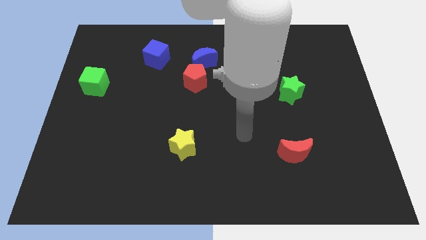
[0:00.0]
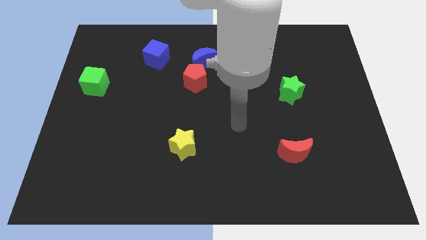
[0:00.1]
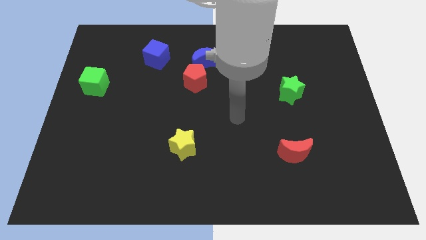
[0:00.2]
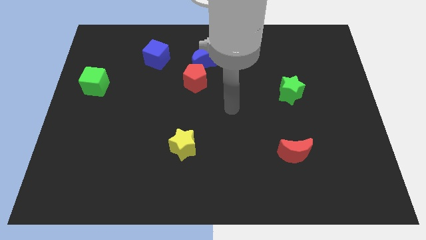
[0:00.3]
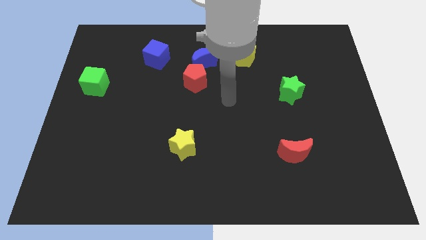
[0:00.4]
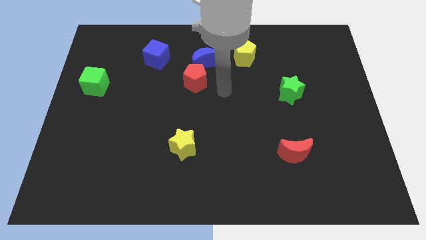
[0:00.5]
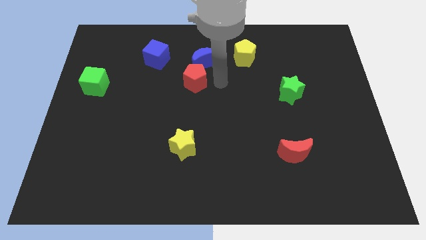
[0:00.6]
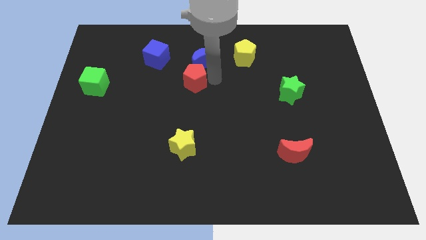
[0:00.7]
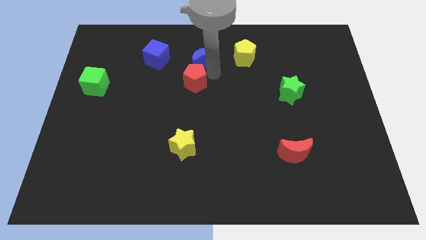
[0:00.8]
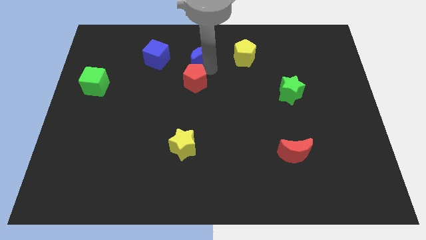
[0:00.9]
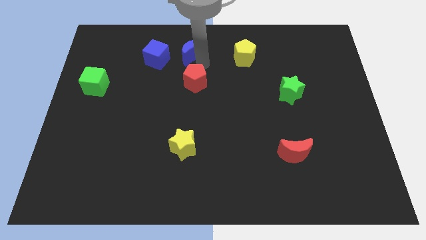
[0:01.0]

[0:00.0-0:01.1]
move the red pentagon away from the blue moon

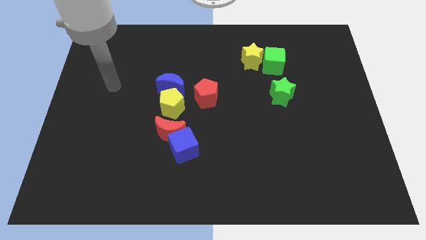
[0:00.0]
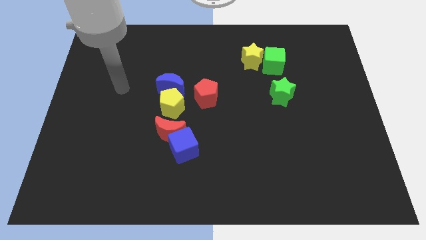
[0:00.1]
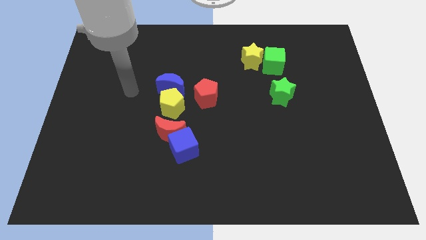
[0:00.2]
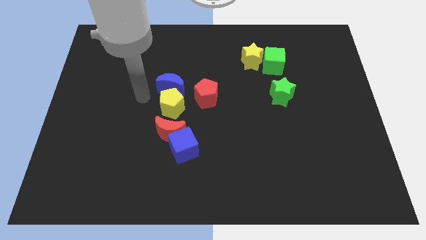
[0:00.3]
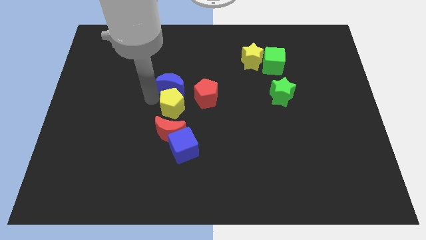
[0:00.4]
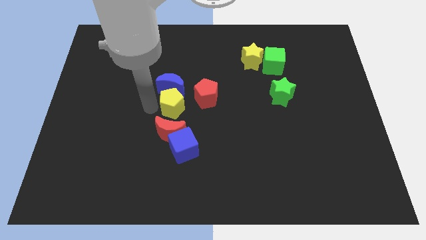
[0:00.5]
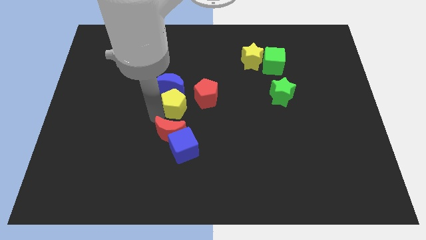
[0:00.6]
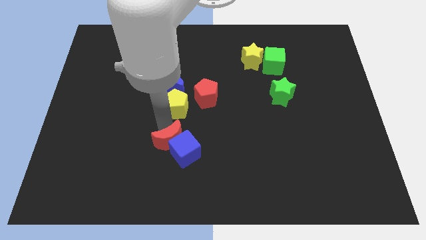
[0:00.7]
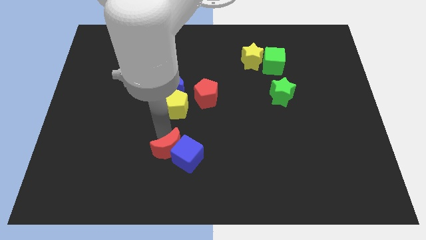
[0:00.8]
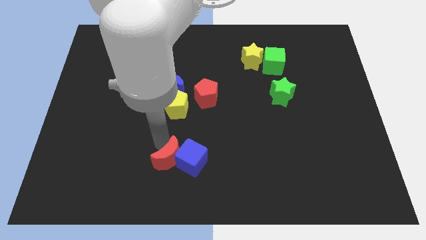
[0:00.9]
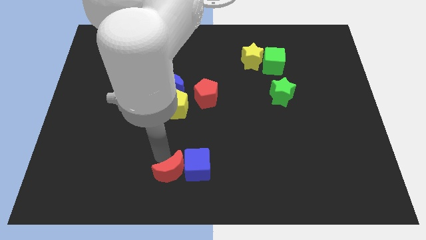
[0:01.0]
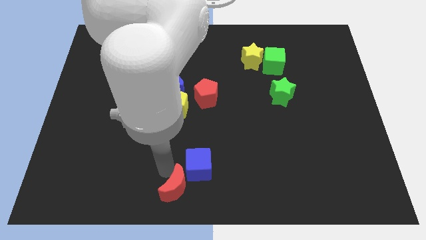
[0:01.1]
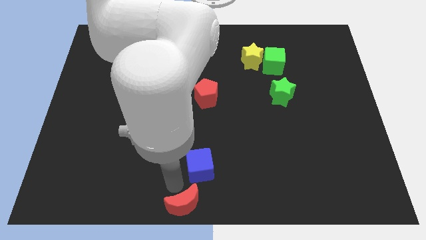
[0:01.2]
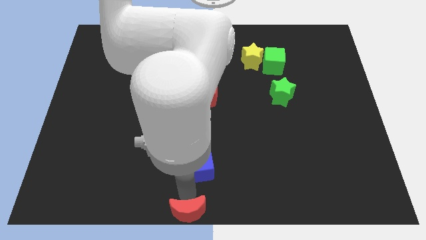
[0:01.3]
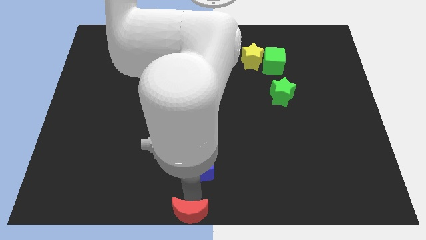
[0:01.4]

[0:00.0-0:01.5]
pull the blue cube apart from the red moon

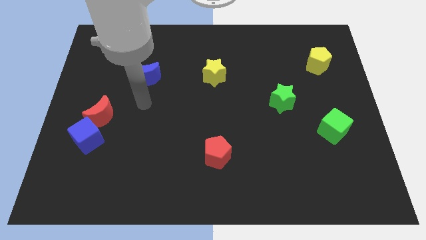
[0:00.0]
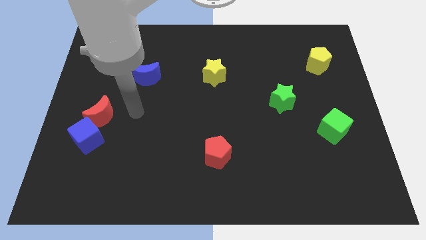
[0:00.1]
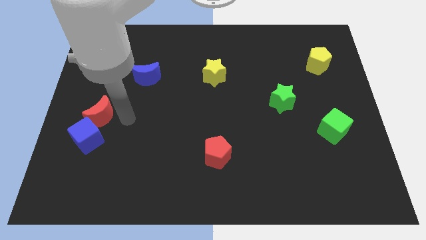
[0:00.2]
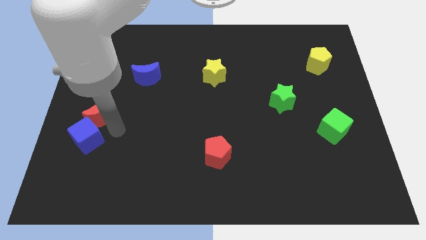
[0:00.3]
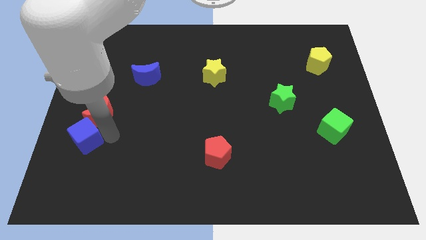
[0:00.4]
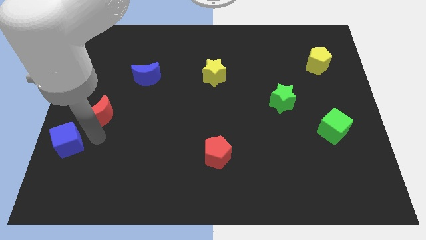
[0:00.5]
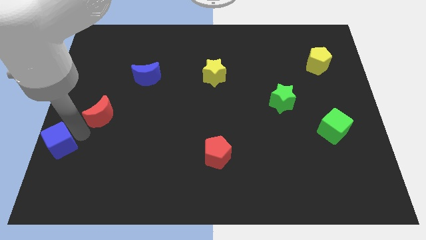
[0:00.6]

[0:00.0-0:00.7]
move the red moon away from the blue cube

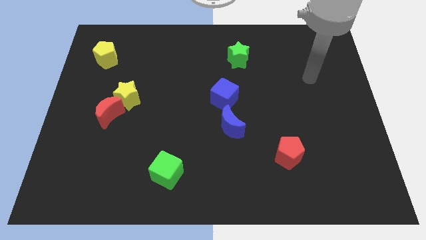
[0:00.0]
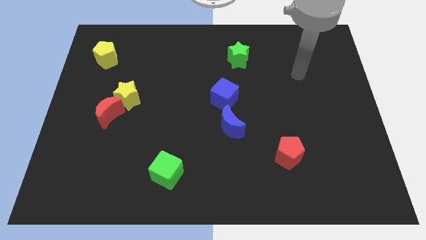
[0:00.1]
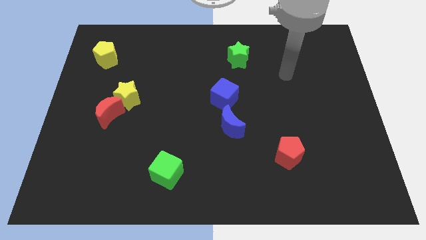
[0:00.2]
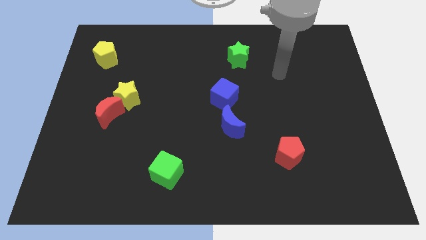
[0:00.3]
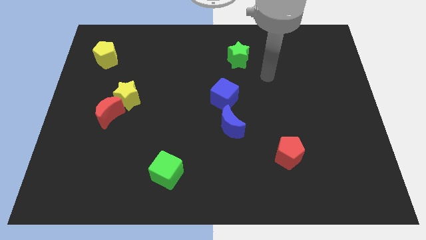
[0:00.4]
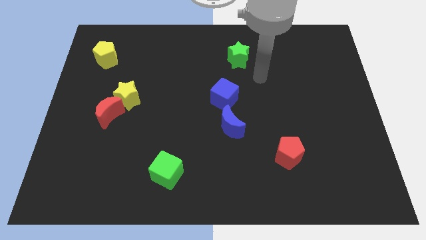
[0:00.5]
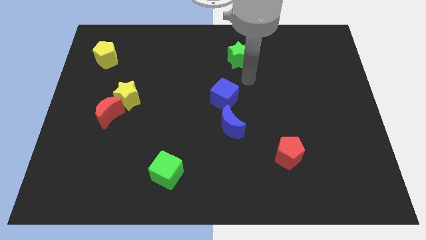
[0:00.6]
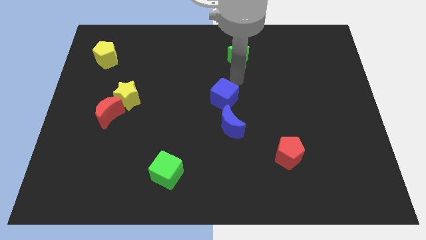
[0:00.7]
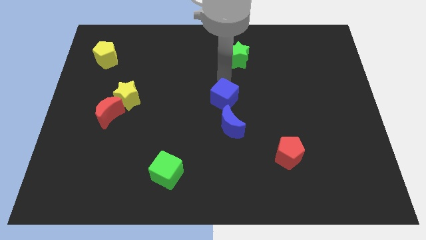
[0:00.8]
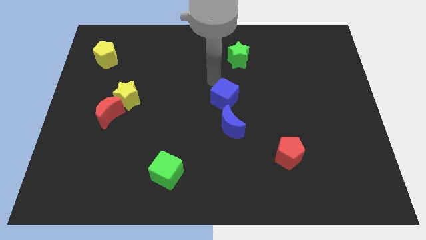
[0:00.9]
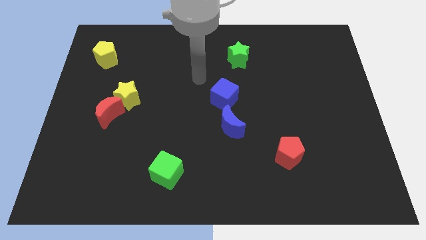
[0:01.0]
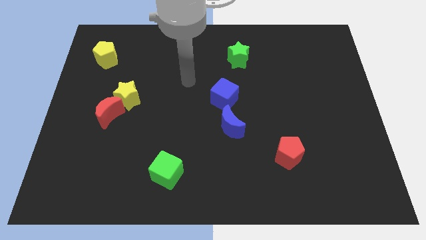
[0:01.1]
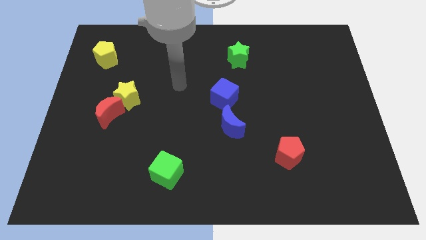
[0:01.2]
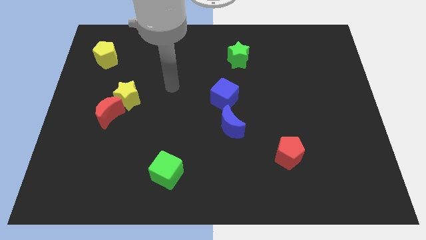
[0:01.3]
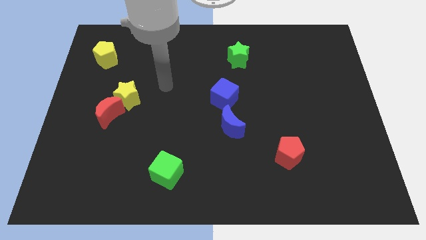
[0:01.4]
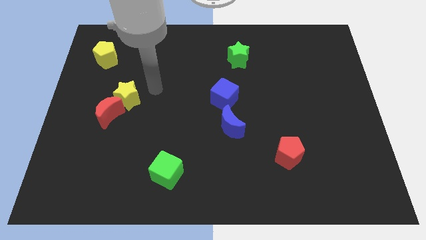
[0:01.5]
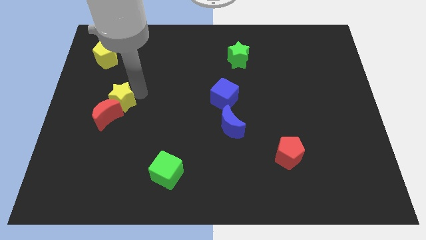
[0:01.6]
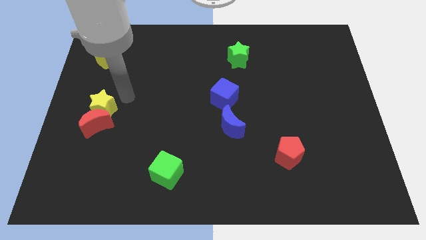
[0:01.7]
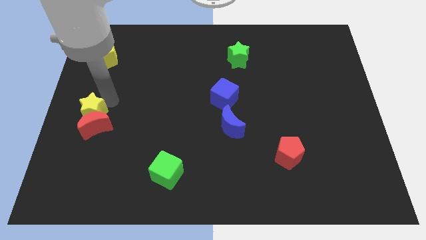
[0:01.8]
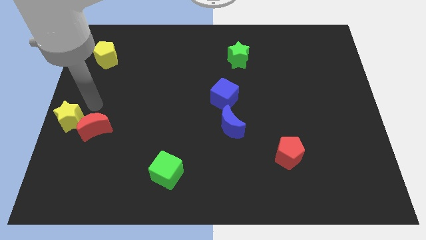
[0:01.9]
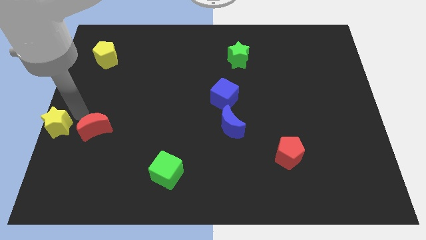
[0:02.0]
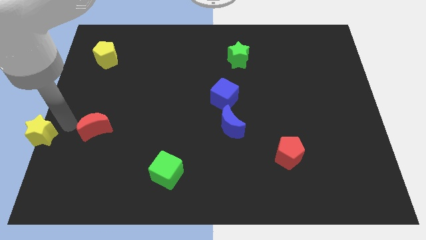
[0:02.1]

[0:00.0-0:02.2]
move the red moon away from the yellow star

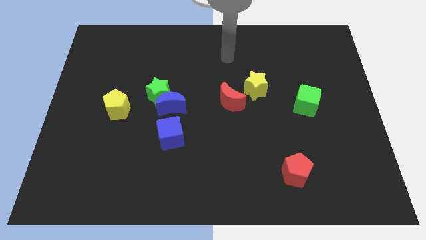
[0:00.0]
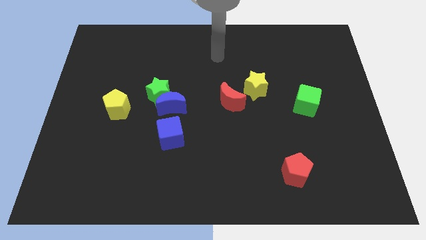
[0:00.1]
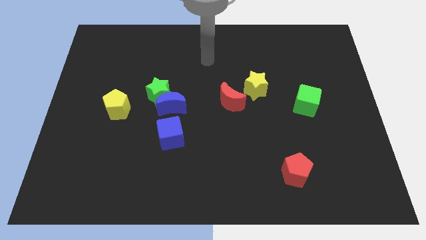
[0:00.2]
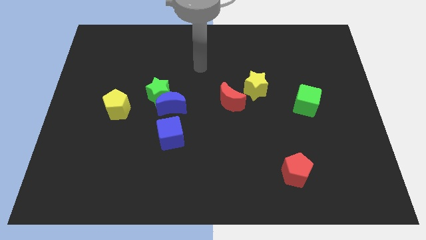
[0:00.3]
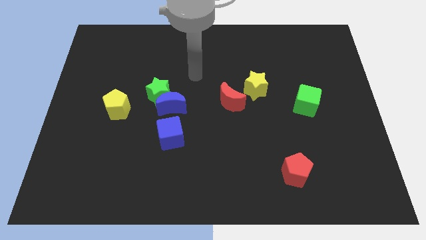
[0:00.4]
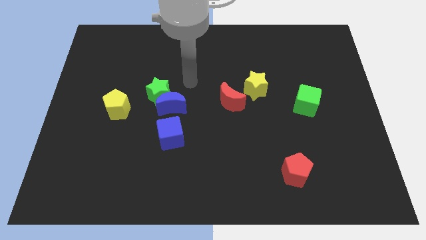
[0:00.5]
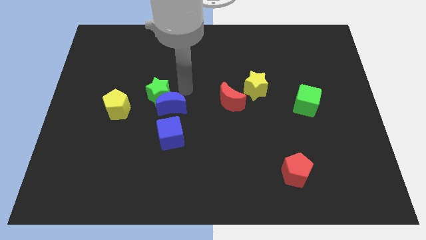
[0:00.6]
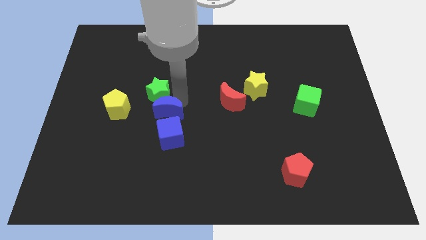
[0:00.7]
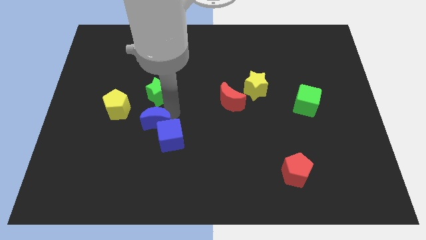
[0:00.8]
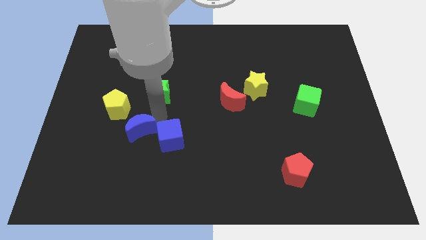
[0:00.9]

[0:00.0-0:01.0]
pull the green star apart from the blue moon

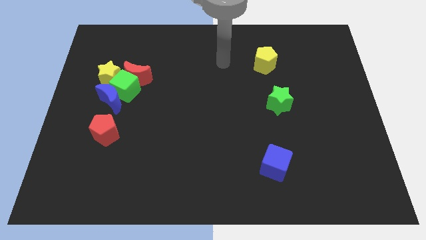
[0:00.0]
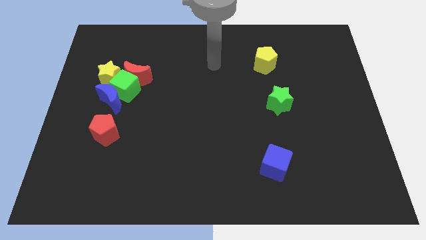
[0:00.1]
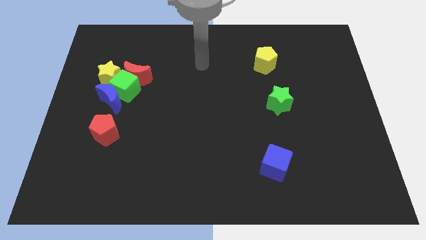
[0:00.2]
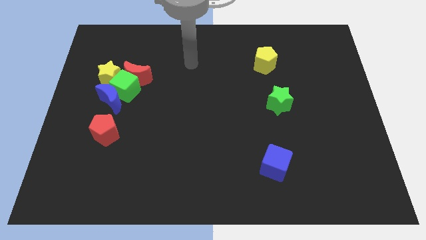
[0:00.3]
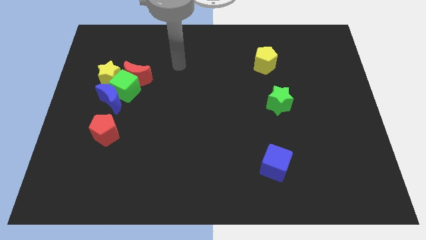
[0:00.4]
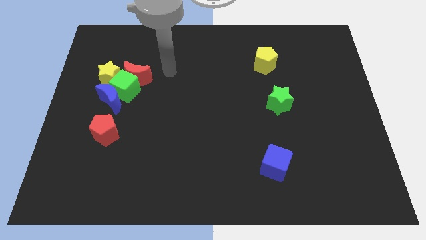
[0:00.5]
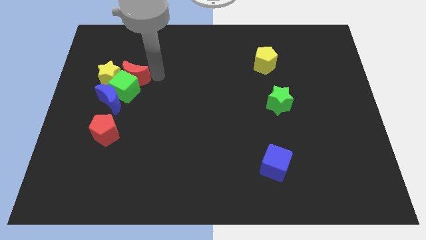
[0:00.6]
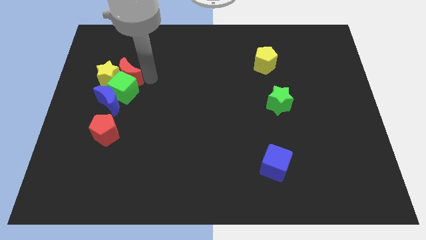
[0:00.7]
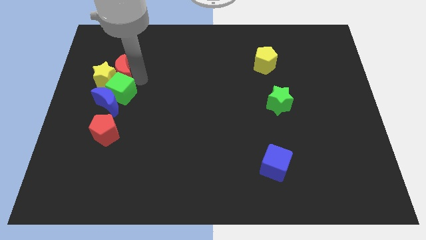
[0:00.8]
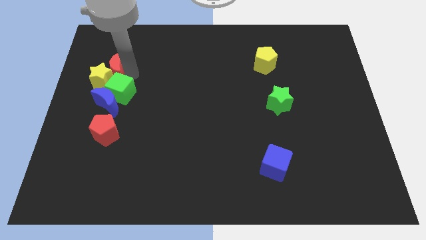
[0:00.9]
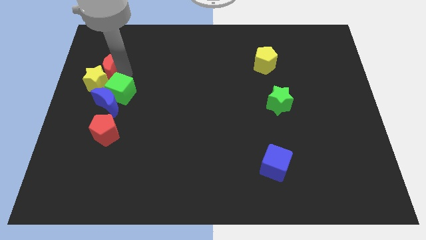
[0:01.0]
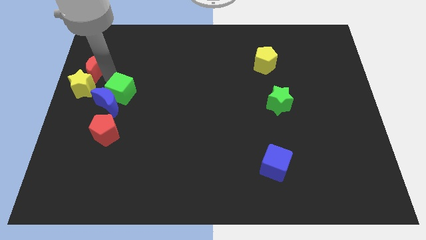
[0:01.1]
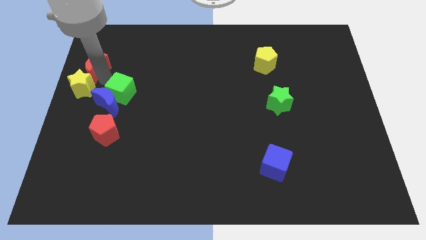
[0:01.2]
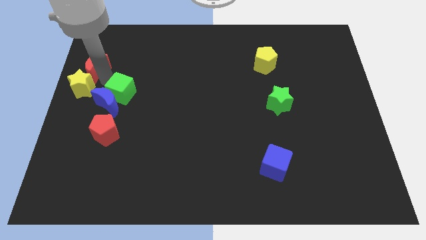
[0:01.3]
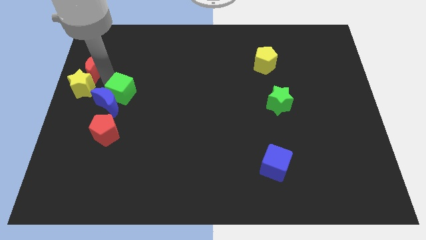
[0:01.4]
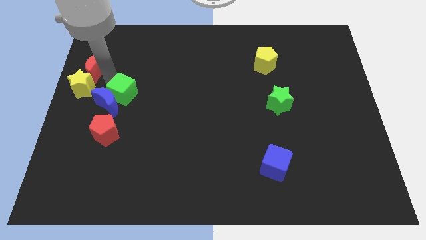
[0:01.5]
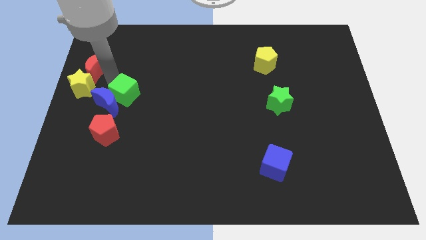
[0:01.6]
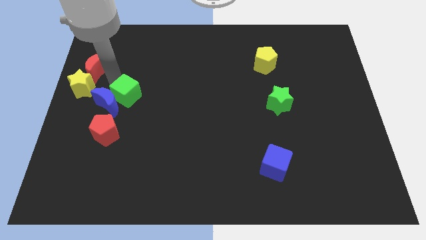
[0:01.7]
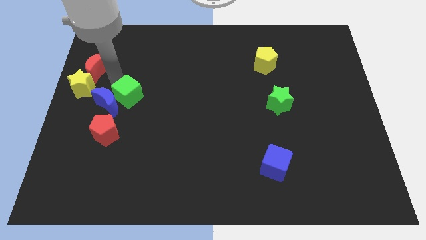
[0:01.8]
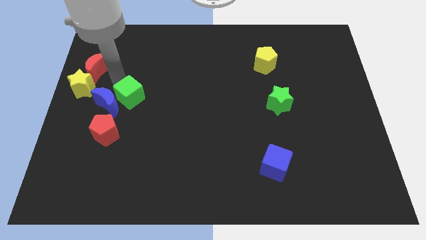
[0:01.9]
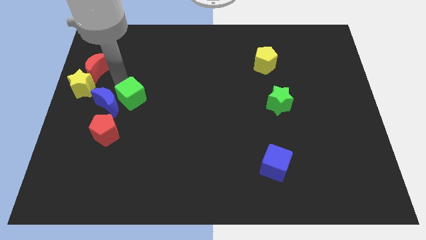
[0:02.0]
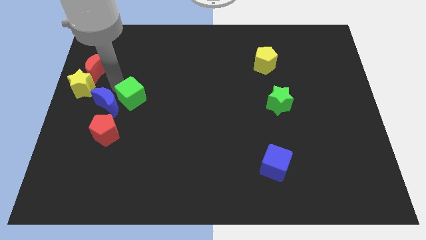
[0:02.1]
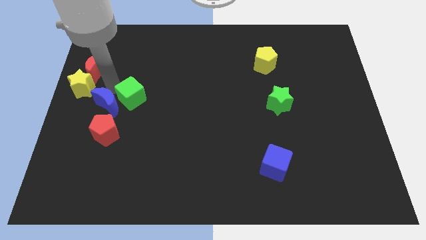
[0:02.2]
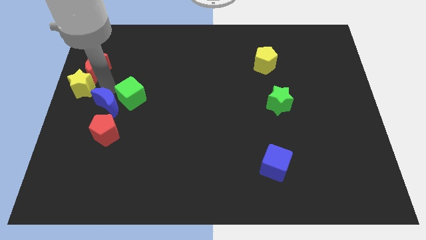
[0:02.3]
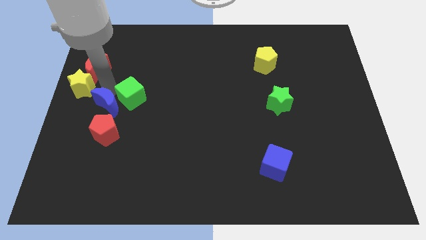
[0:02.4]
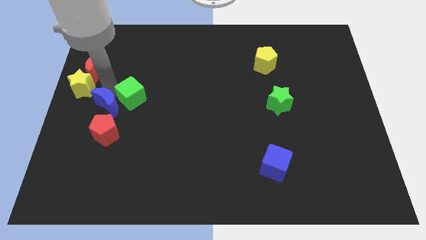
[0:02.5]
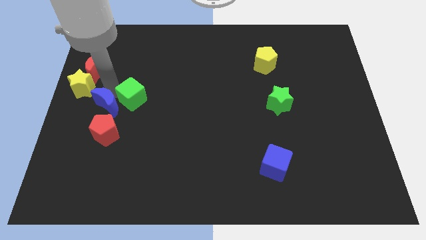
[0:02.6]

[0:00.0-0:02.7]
move the green cube away from the red moon, blue moon, and yellow star
